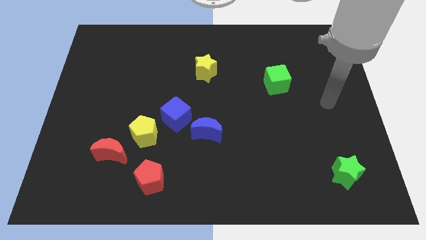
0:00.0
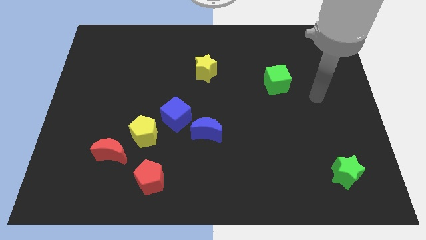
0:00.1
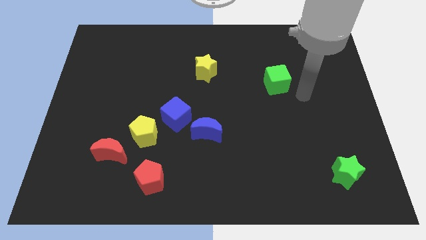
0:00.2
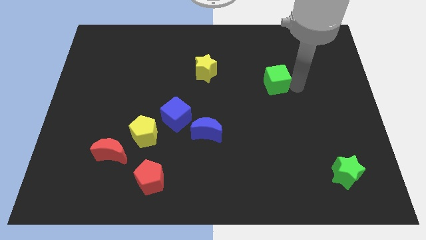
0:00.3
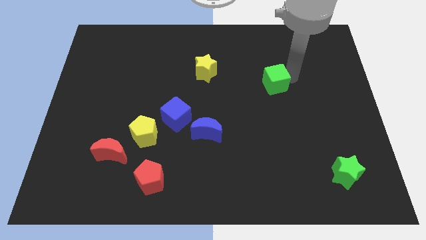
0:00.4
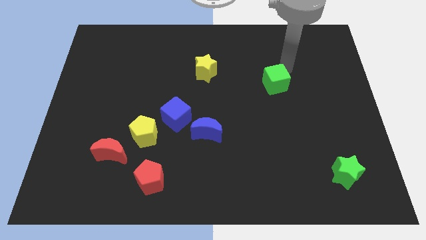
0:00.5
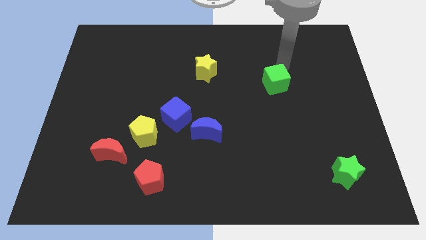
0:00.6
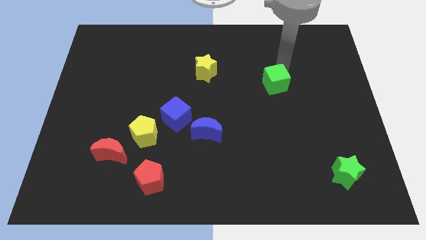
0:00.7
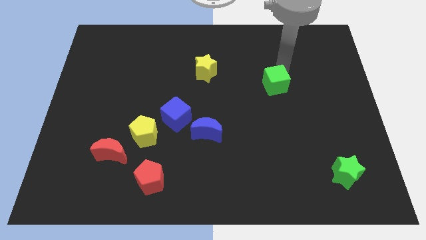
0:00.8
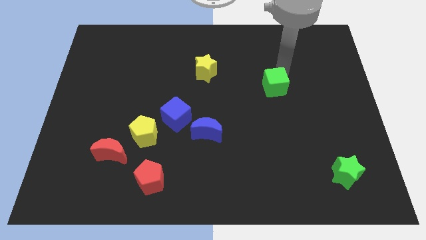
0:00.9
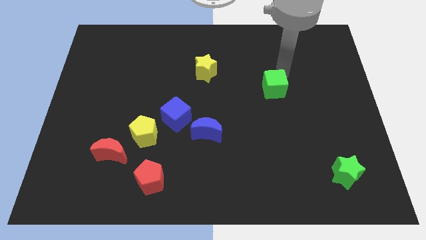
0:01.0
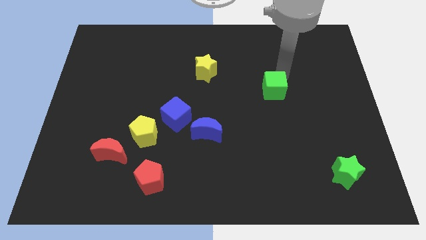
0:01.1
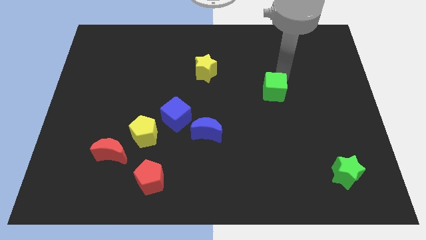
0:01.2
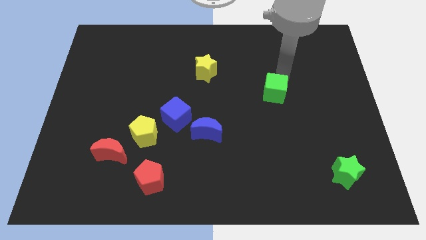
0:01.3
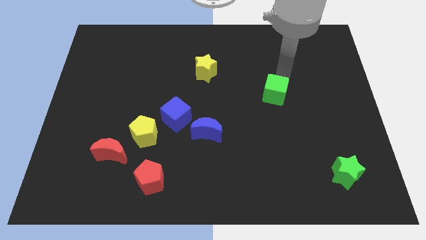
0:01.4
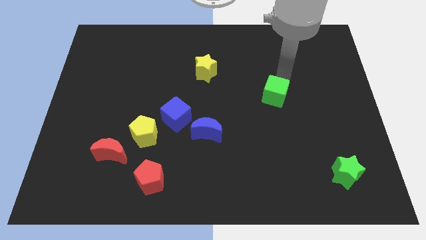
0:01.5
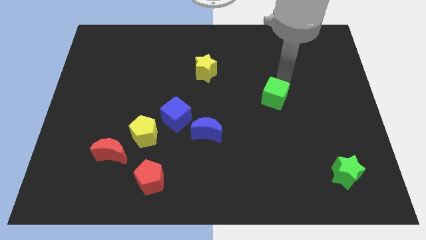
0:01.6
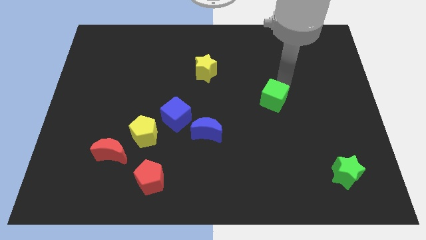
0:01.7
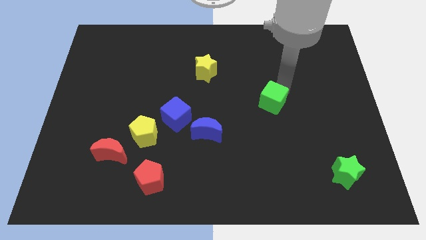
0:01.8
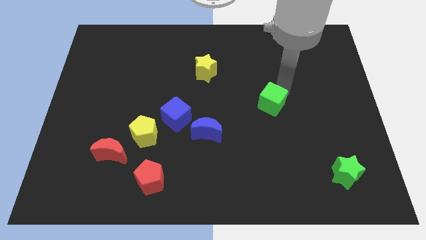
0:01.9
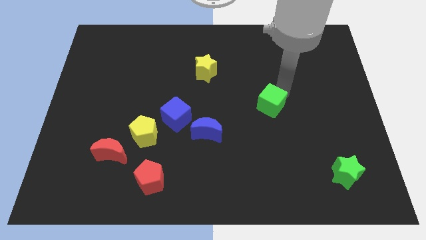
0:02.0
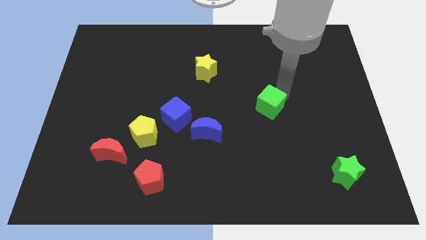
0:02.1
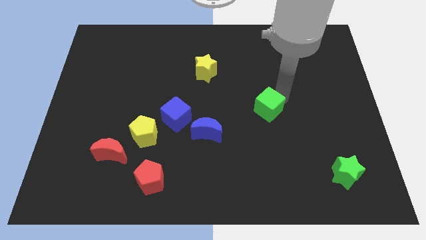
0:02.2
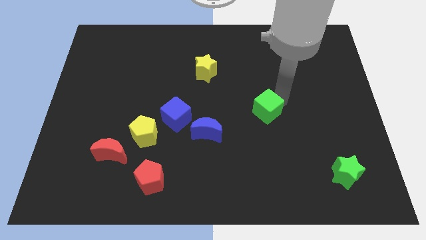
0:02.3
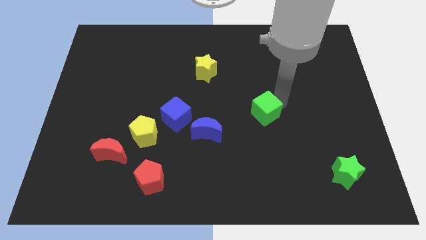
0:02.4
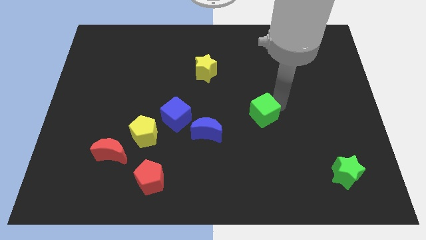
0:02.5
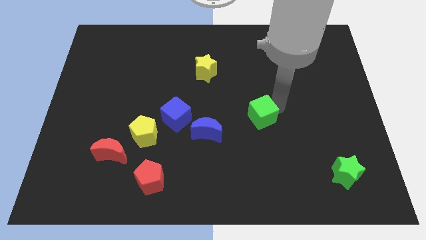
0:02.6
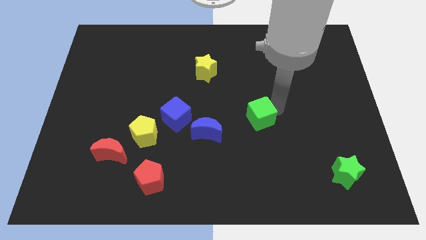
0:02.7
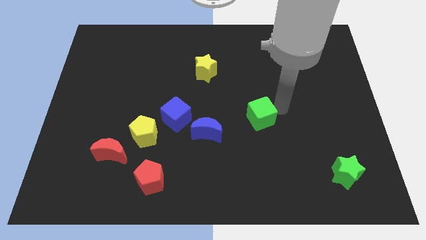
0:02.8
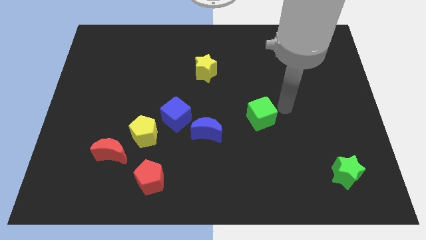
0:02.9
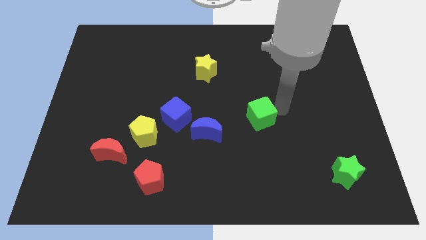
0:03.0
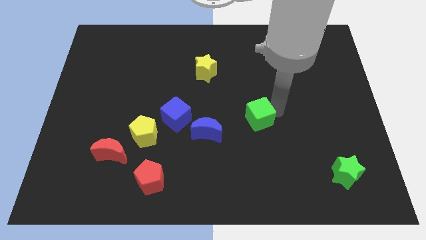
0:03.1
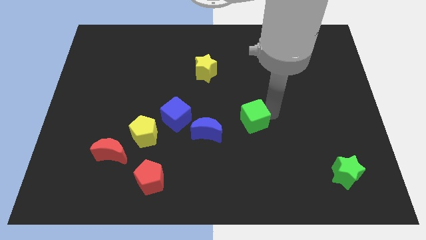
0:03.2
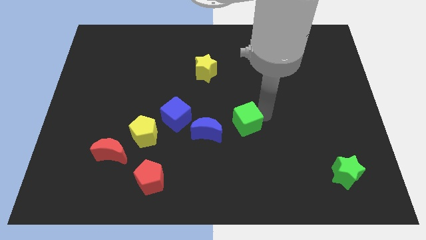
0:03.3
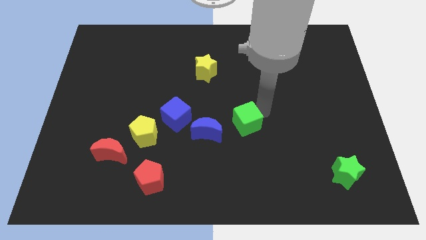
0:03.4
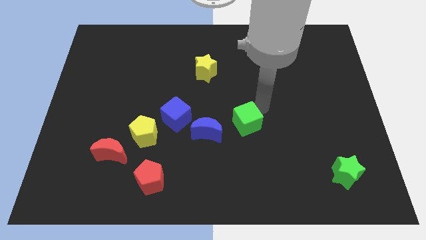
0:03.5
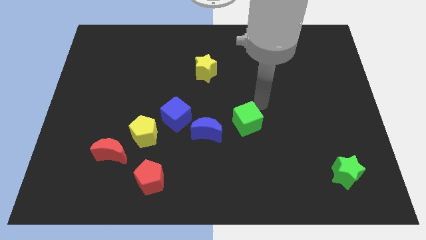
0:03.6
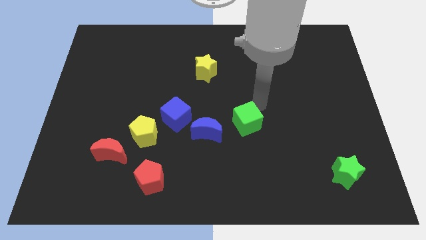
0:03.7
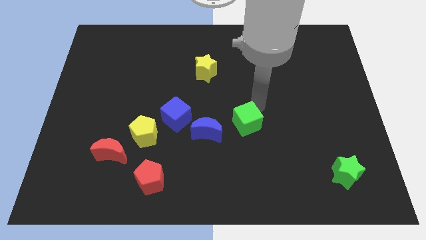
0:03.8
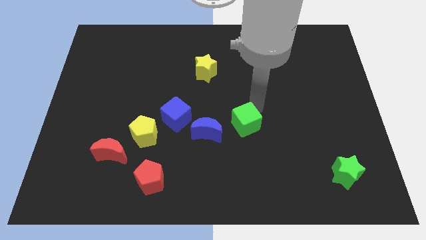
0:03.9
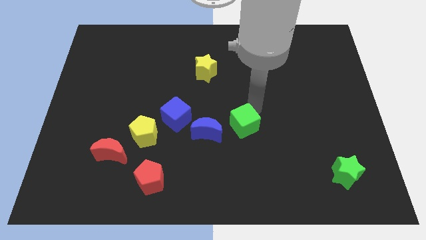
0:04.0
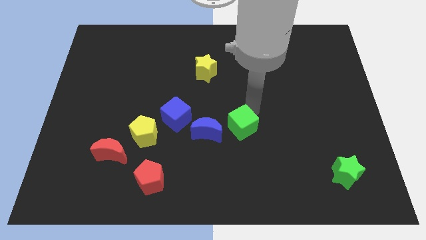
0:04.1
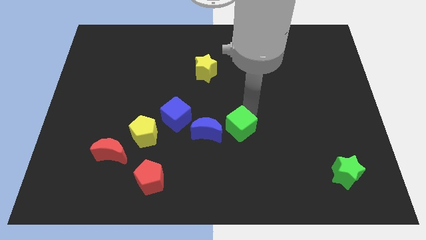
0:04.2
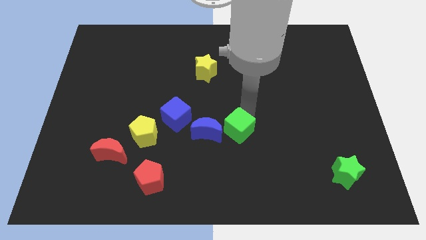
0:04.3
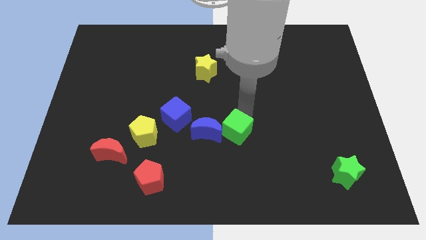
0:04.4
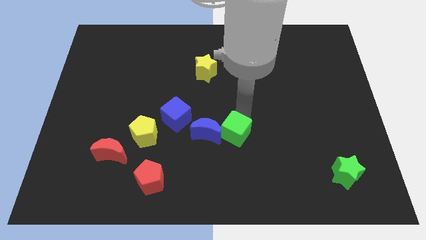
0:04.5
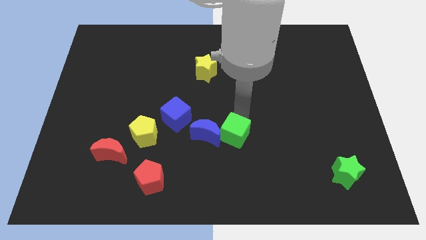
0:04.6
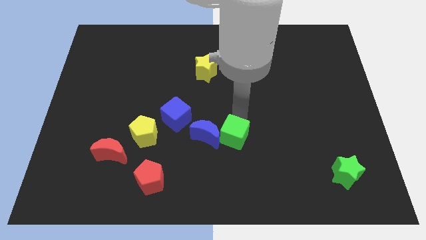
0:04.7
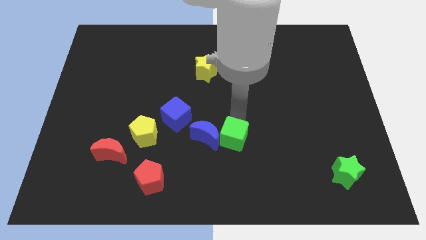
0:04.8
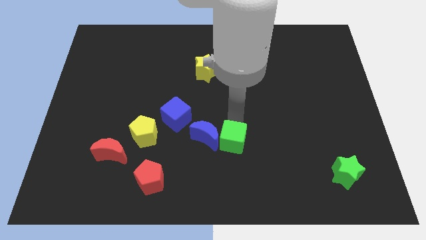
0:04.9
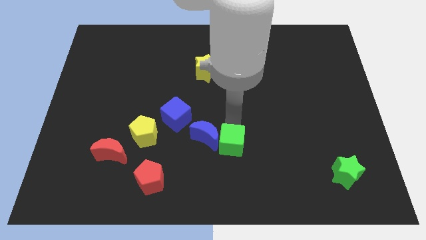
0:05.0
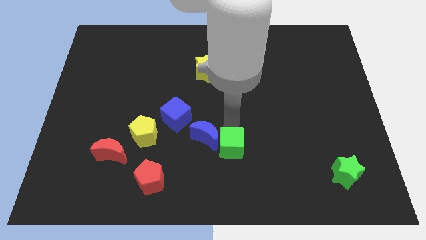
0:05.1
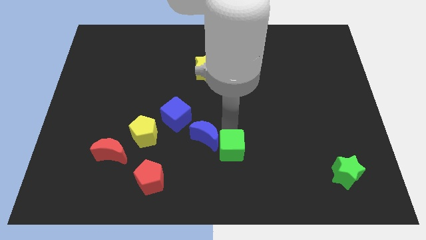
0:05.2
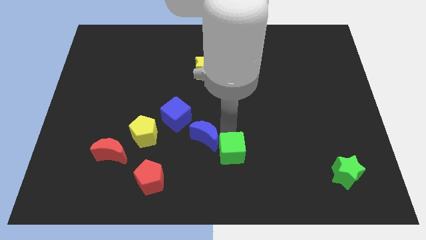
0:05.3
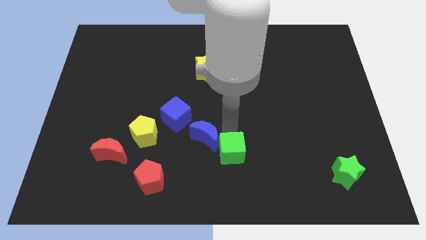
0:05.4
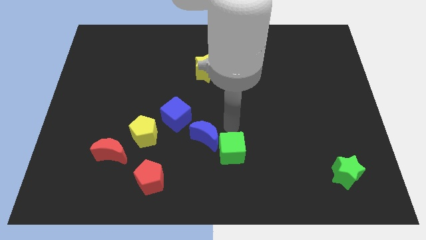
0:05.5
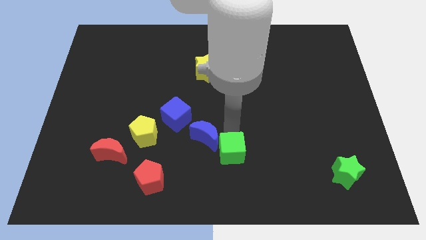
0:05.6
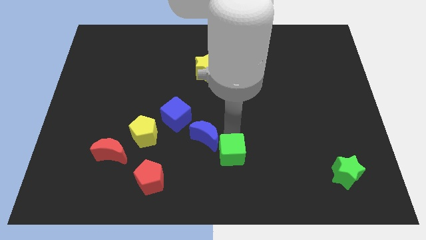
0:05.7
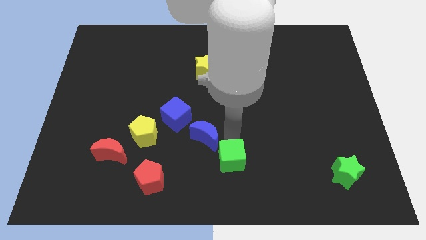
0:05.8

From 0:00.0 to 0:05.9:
put the green cube to the bottom side
